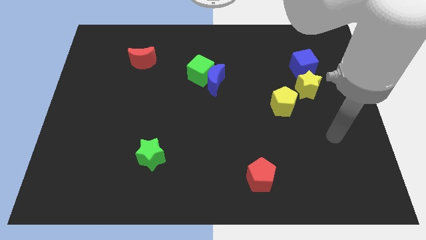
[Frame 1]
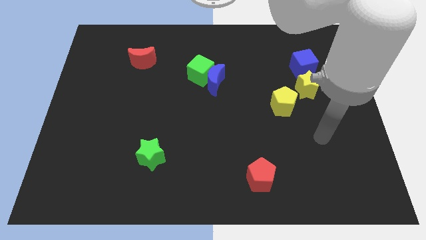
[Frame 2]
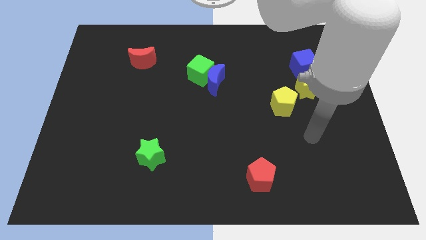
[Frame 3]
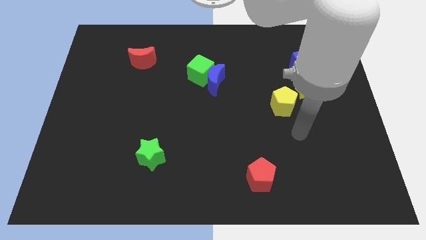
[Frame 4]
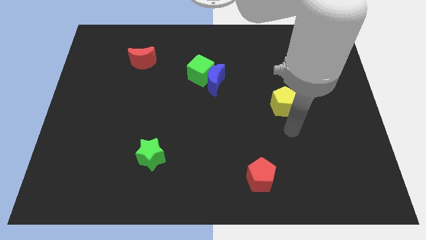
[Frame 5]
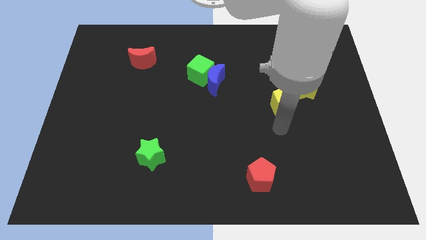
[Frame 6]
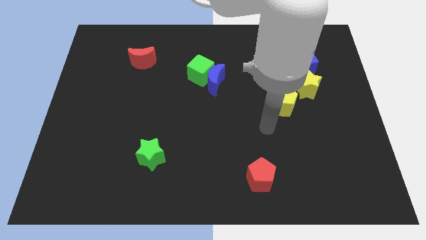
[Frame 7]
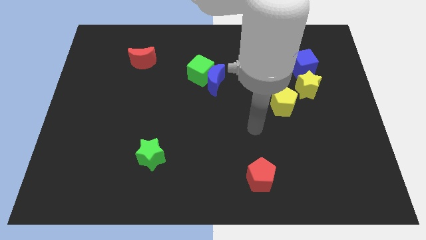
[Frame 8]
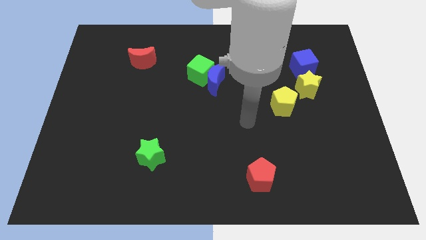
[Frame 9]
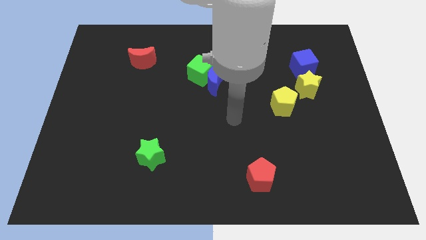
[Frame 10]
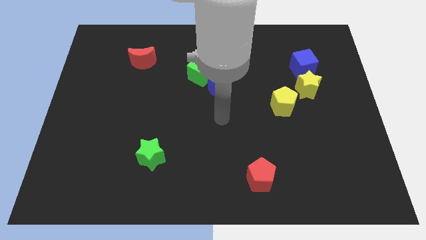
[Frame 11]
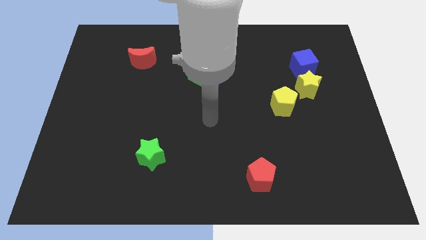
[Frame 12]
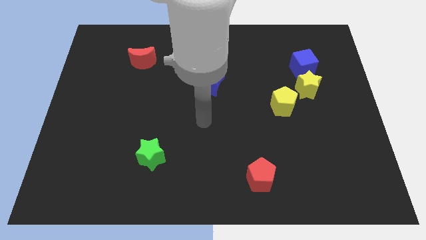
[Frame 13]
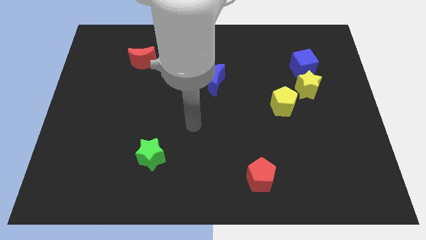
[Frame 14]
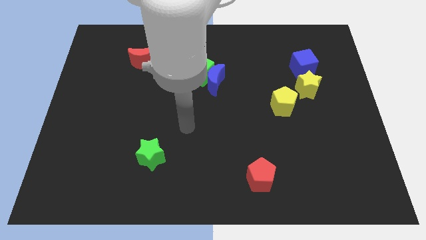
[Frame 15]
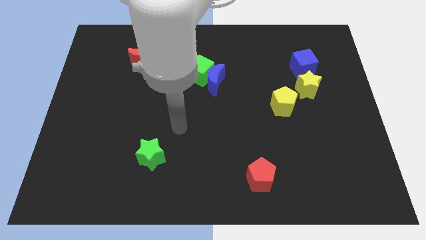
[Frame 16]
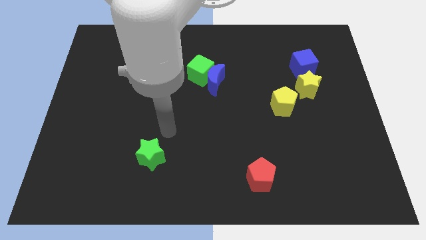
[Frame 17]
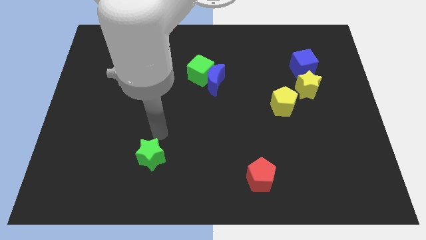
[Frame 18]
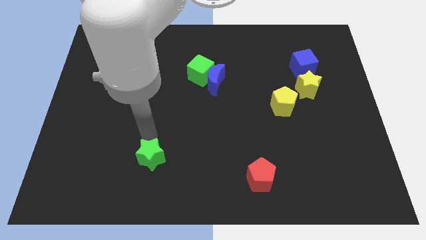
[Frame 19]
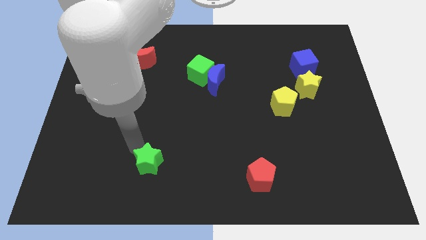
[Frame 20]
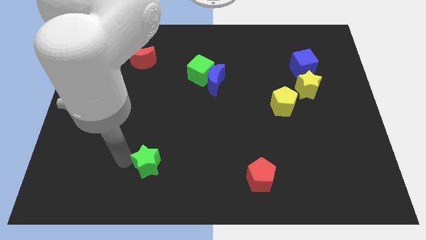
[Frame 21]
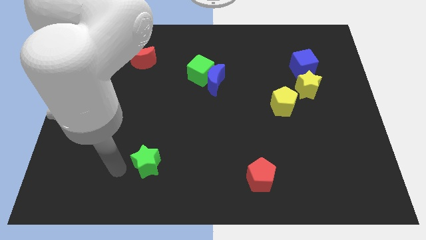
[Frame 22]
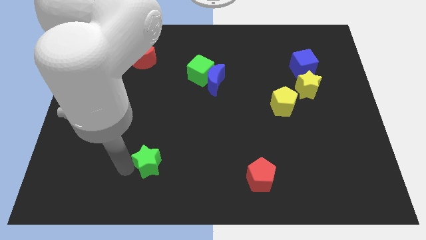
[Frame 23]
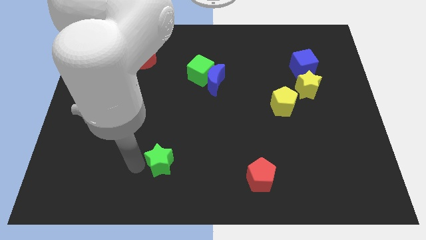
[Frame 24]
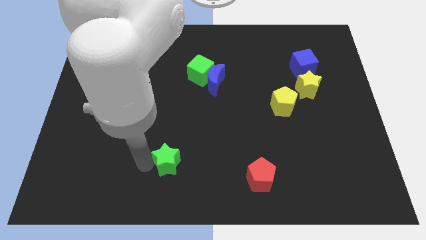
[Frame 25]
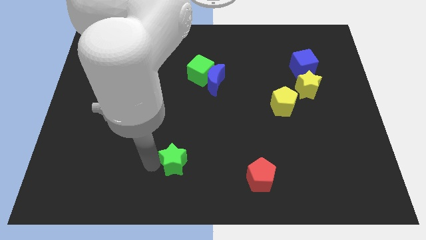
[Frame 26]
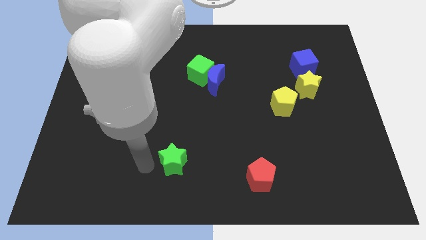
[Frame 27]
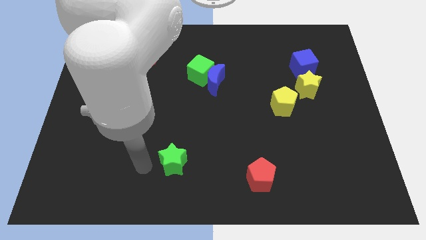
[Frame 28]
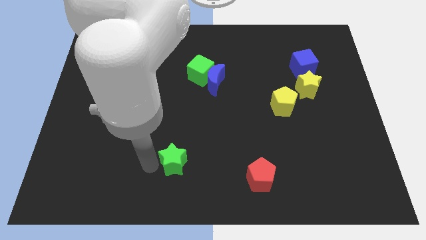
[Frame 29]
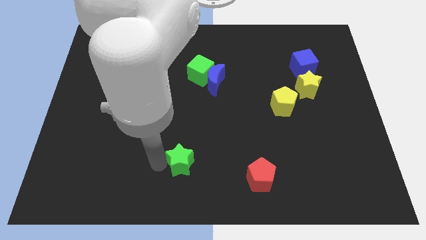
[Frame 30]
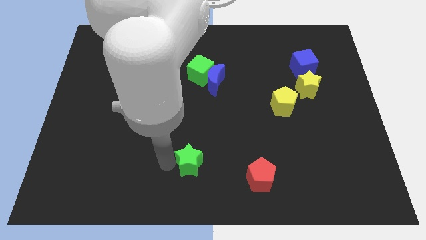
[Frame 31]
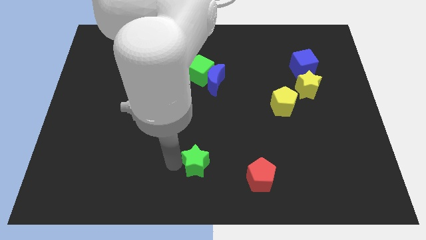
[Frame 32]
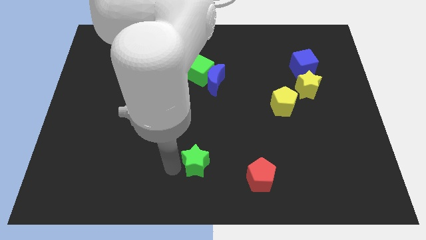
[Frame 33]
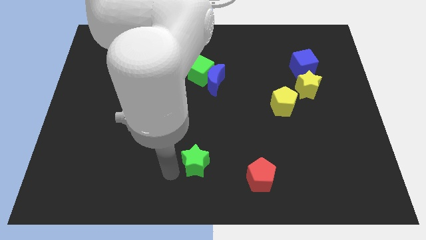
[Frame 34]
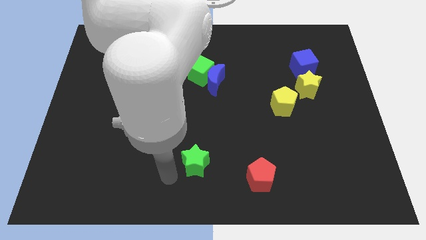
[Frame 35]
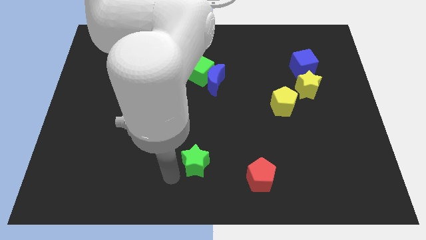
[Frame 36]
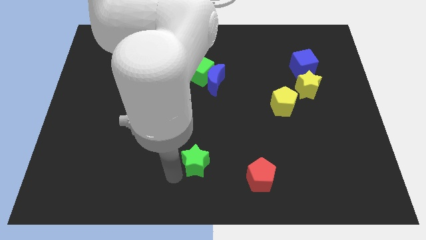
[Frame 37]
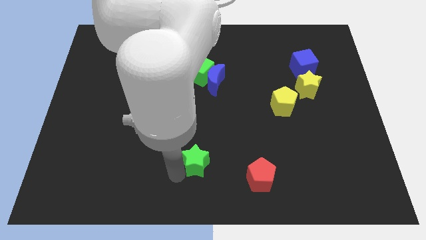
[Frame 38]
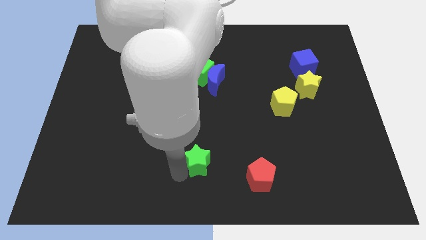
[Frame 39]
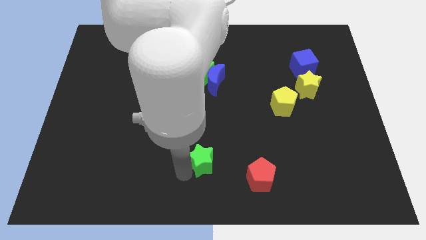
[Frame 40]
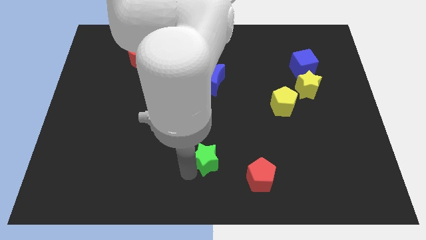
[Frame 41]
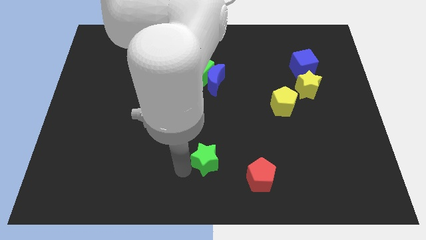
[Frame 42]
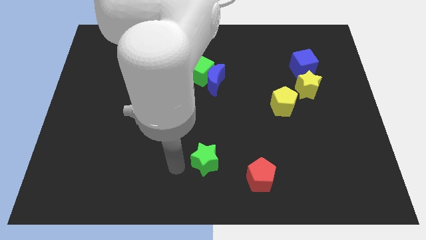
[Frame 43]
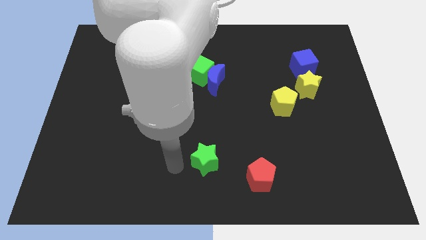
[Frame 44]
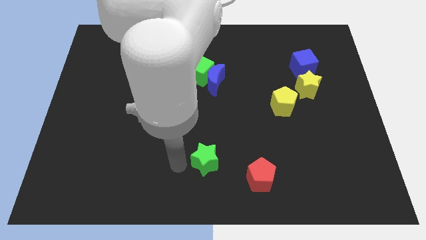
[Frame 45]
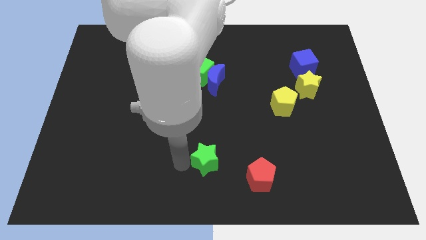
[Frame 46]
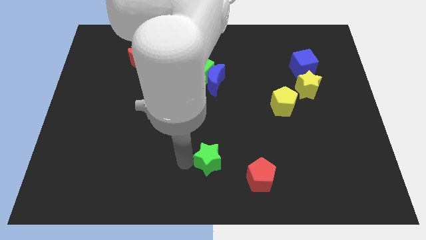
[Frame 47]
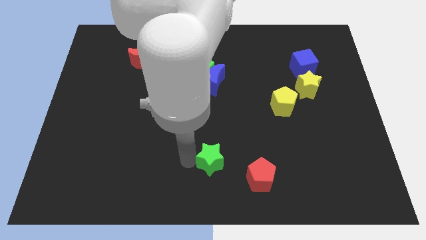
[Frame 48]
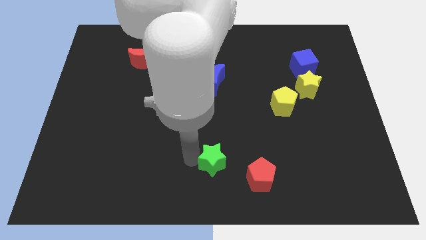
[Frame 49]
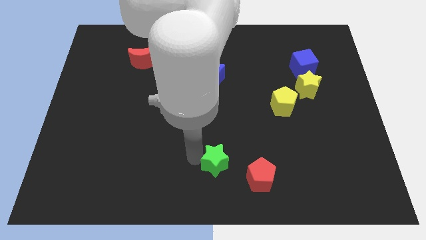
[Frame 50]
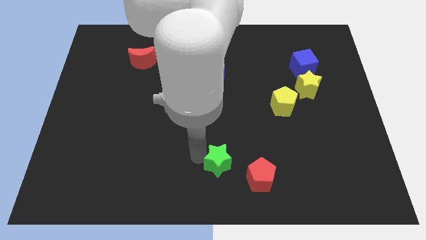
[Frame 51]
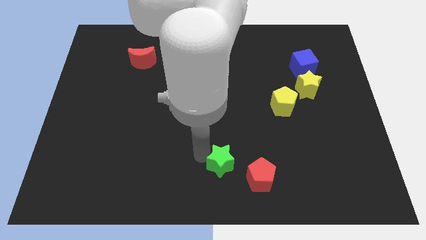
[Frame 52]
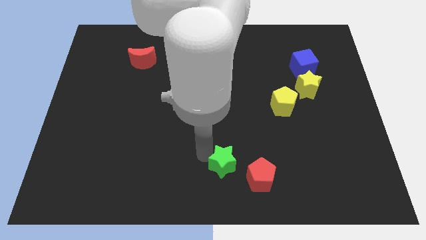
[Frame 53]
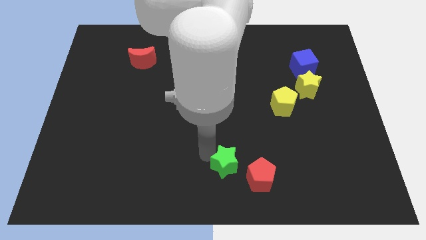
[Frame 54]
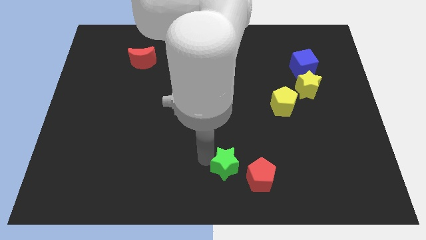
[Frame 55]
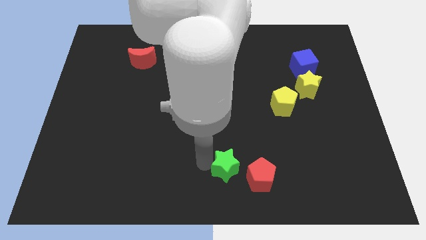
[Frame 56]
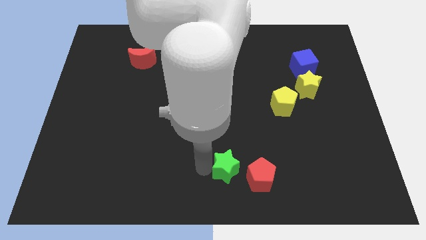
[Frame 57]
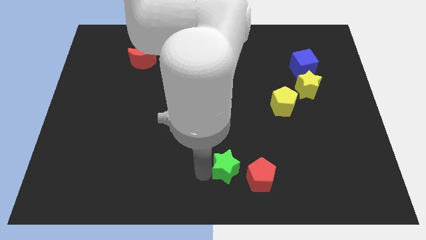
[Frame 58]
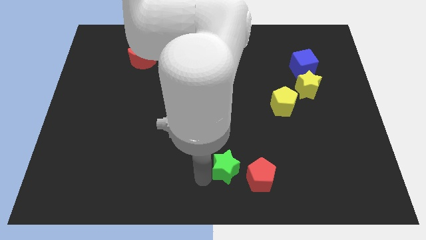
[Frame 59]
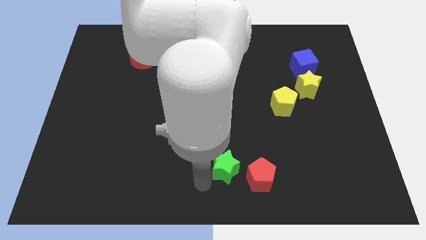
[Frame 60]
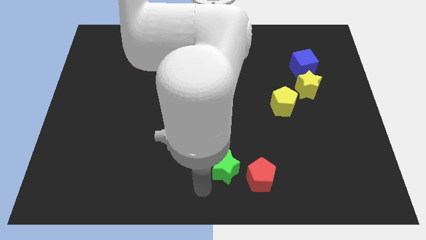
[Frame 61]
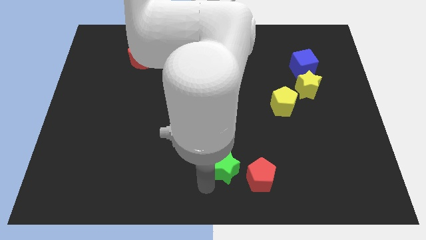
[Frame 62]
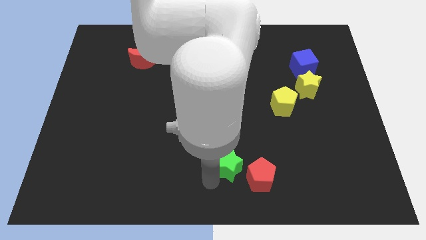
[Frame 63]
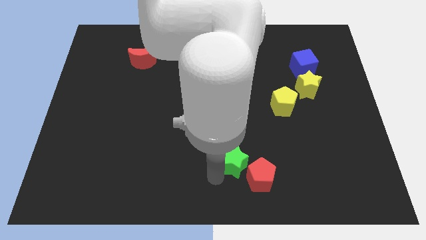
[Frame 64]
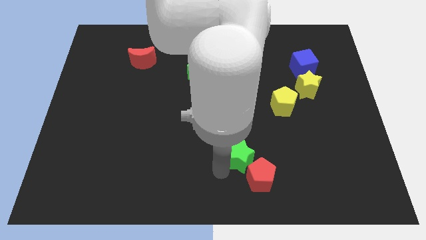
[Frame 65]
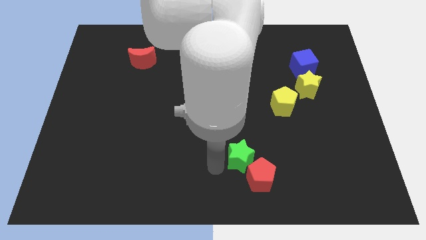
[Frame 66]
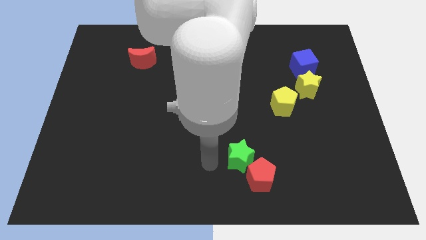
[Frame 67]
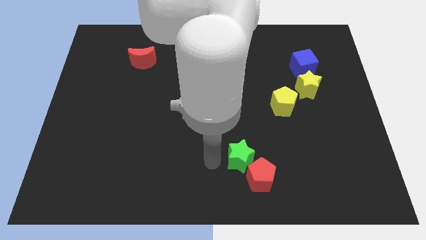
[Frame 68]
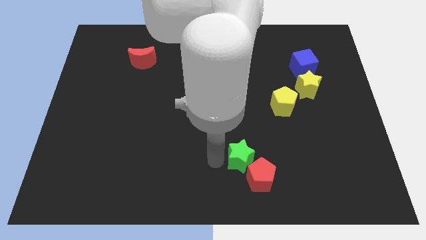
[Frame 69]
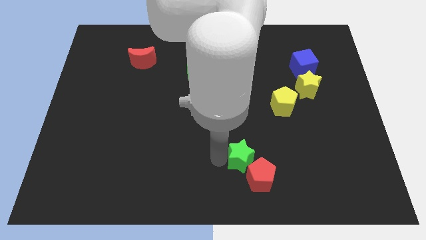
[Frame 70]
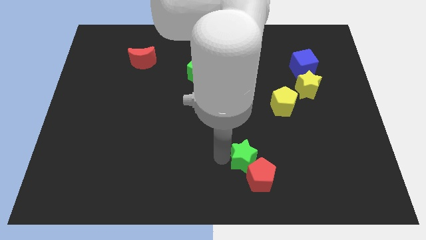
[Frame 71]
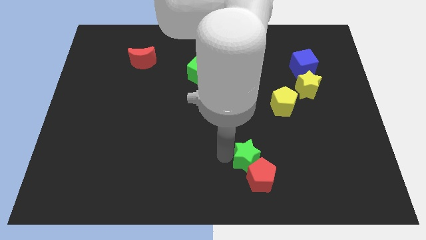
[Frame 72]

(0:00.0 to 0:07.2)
slide the green star right

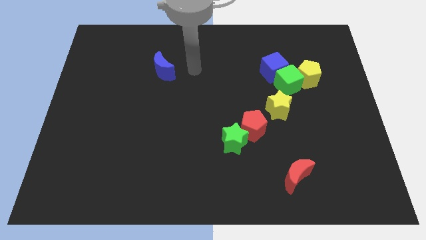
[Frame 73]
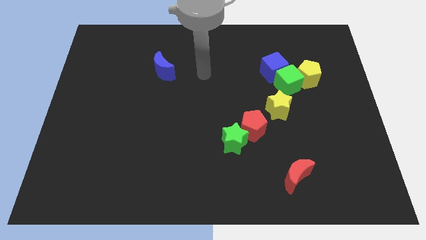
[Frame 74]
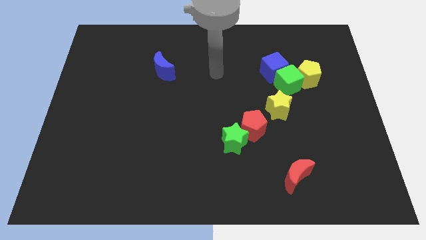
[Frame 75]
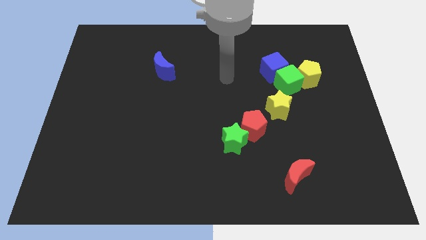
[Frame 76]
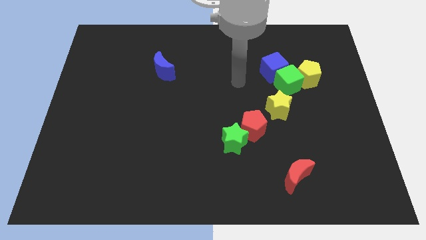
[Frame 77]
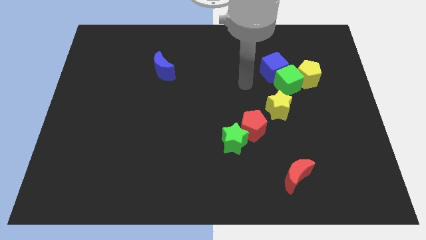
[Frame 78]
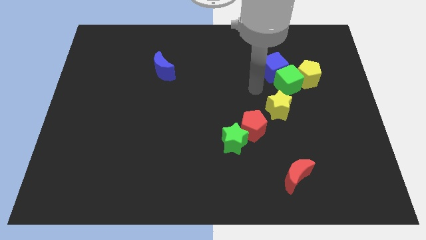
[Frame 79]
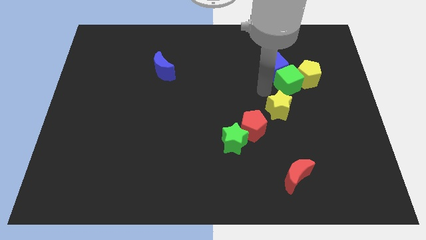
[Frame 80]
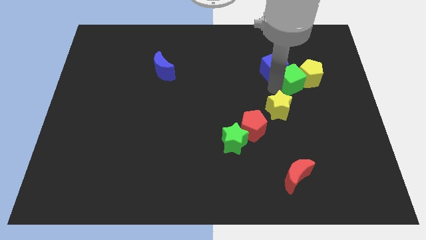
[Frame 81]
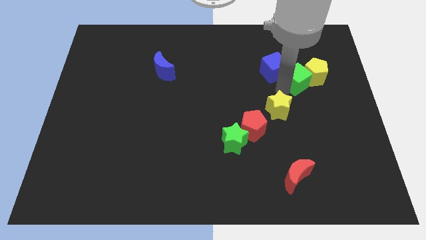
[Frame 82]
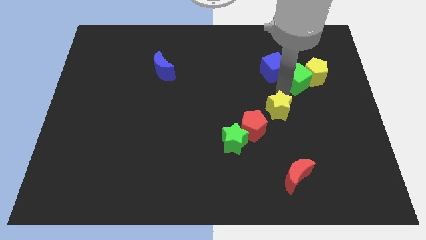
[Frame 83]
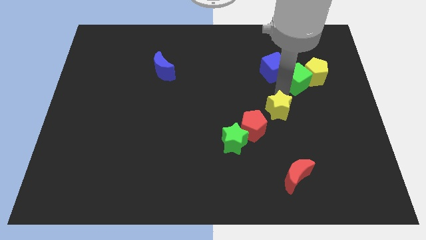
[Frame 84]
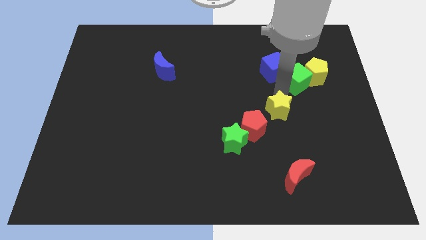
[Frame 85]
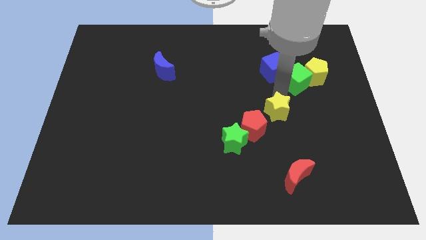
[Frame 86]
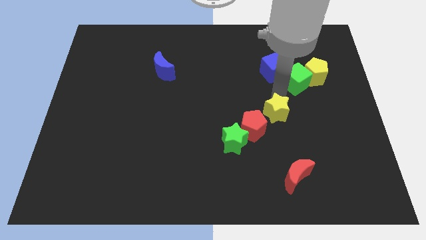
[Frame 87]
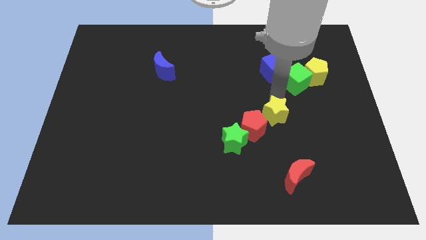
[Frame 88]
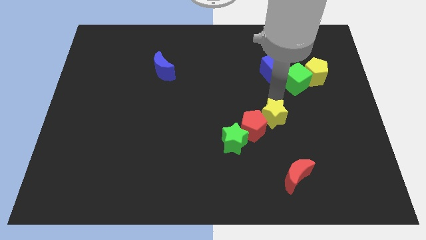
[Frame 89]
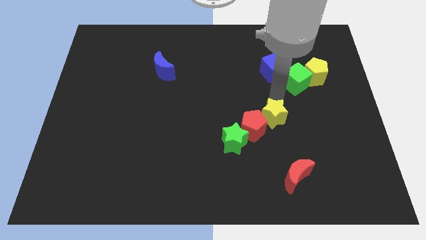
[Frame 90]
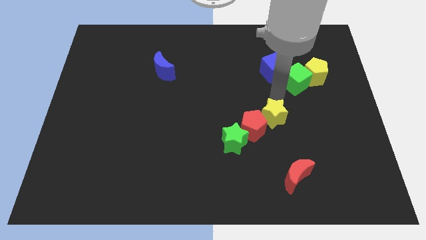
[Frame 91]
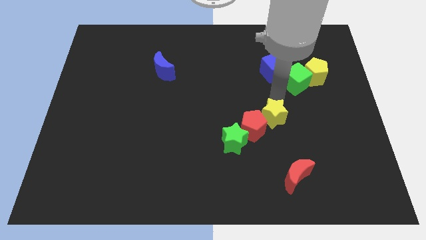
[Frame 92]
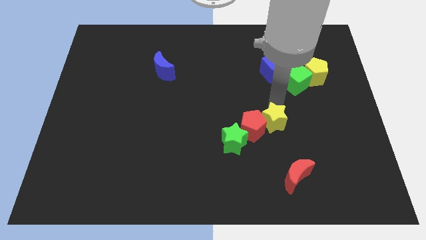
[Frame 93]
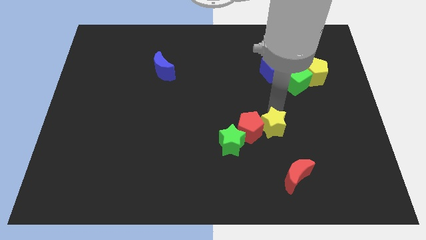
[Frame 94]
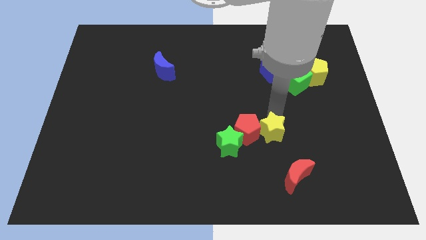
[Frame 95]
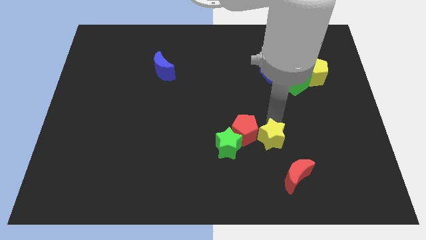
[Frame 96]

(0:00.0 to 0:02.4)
move the yellow star diagonally down and to the left a little bit
